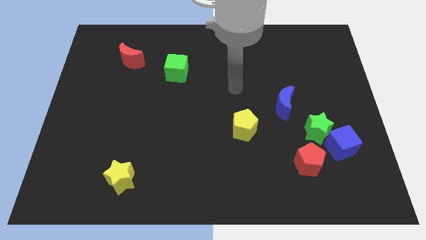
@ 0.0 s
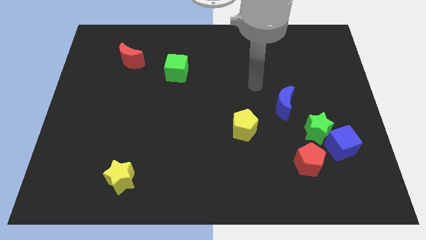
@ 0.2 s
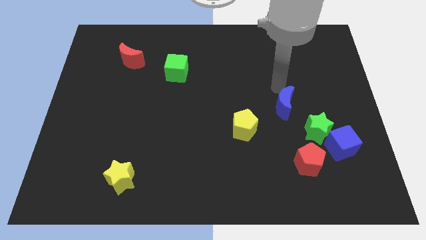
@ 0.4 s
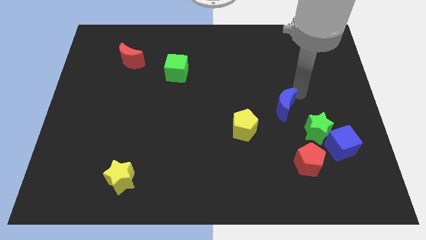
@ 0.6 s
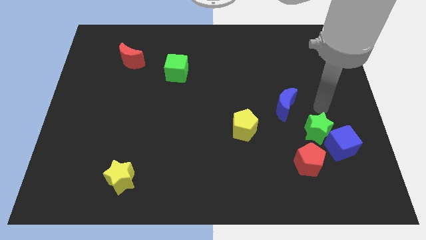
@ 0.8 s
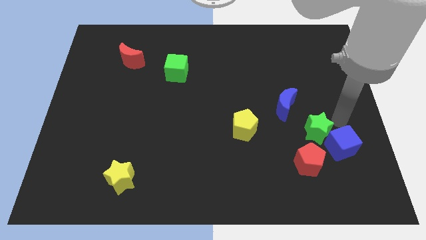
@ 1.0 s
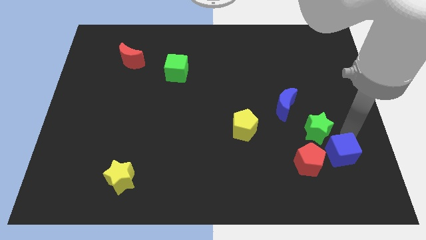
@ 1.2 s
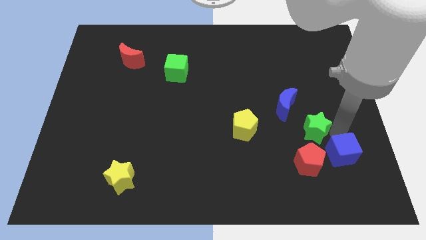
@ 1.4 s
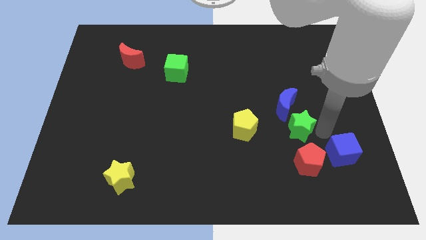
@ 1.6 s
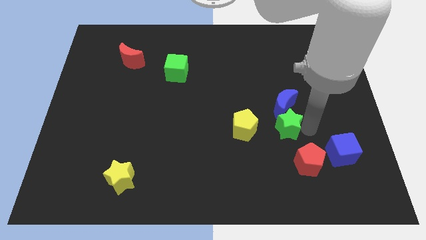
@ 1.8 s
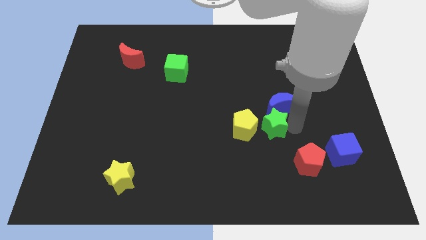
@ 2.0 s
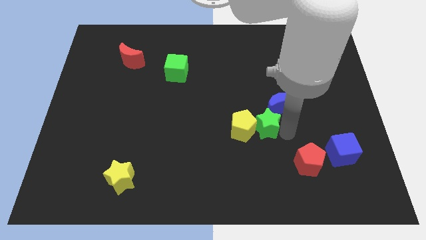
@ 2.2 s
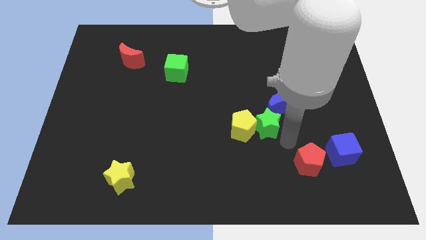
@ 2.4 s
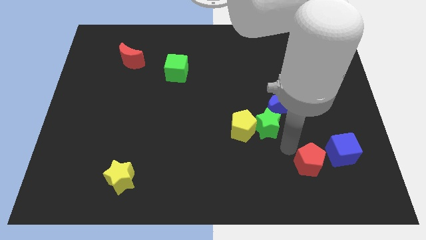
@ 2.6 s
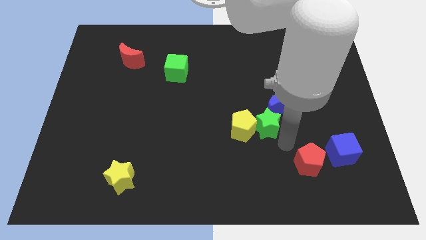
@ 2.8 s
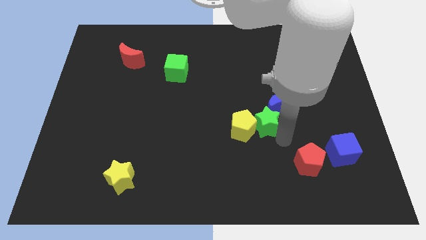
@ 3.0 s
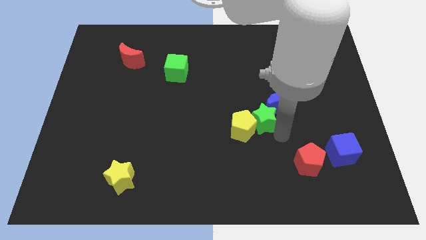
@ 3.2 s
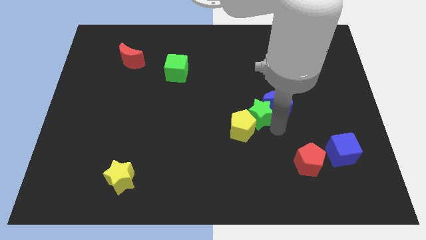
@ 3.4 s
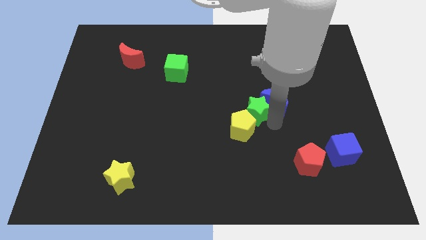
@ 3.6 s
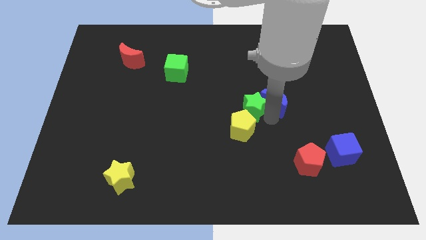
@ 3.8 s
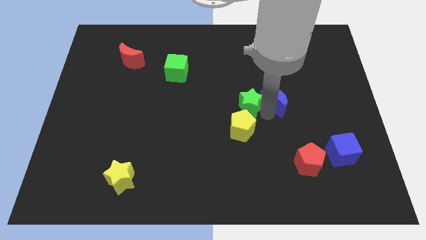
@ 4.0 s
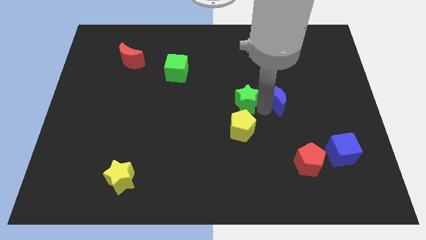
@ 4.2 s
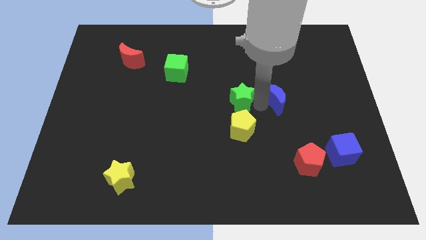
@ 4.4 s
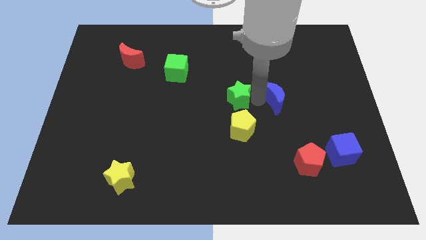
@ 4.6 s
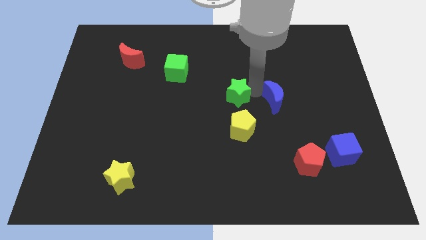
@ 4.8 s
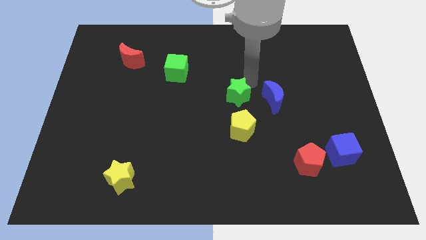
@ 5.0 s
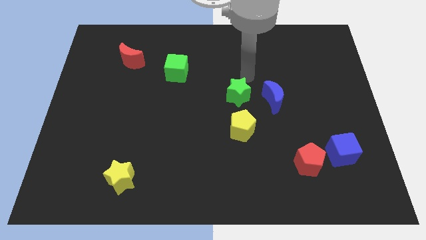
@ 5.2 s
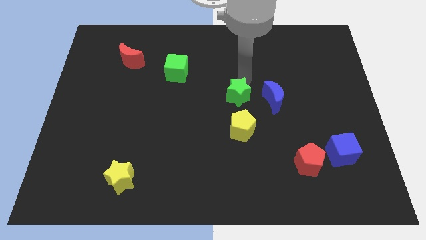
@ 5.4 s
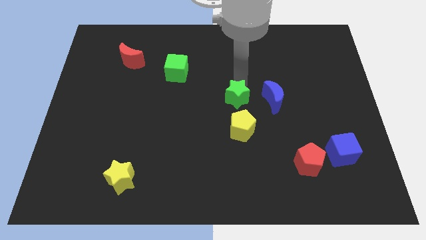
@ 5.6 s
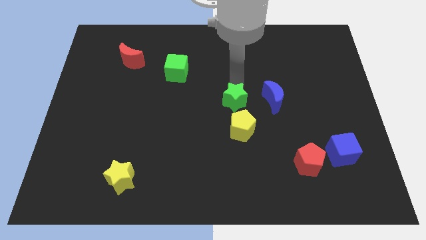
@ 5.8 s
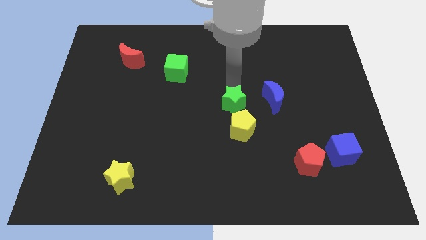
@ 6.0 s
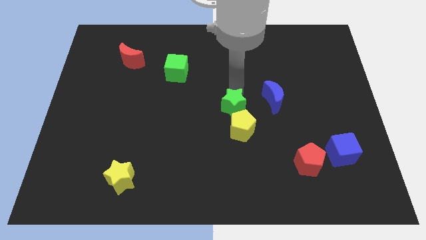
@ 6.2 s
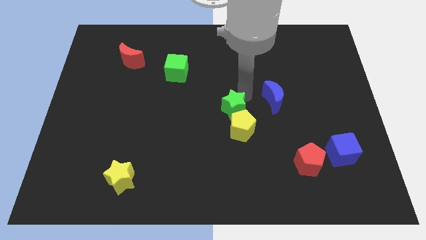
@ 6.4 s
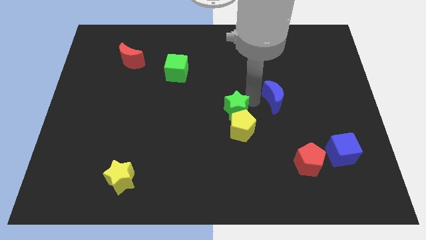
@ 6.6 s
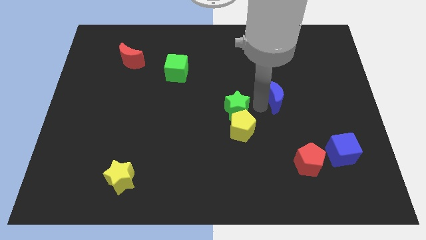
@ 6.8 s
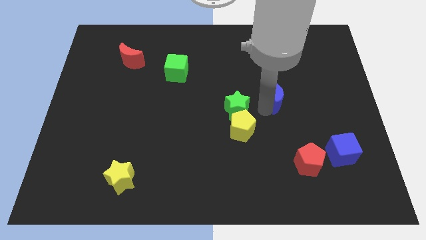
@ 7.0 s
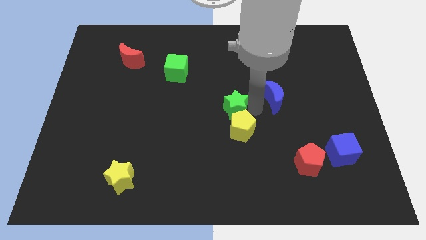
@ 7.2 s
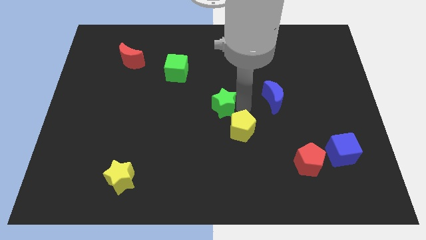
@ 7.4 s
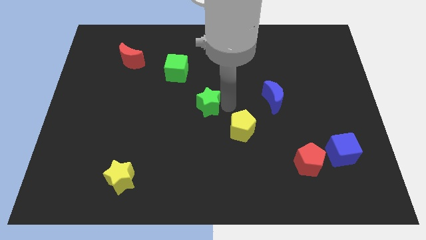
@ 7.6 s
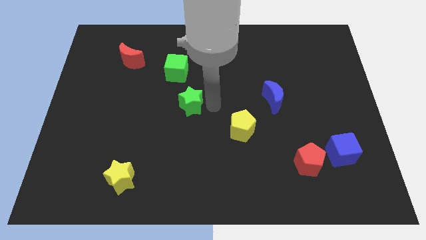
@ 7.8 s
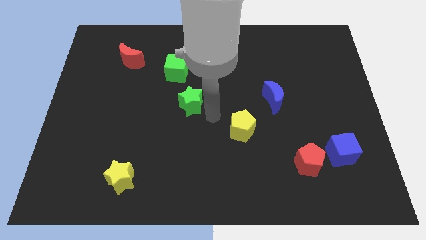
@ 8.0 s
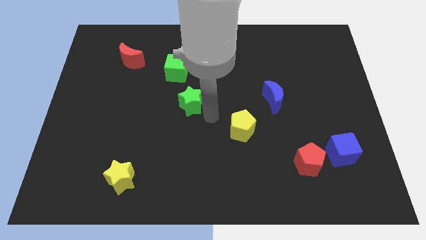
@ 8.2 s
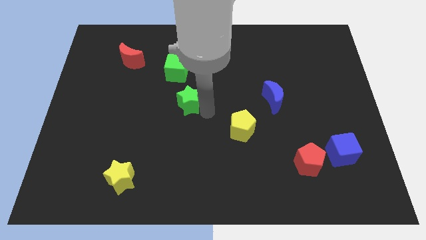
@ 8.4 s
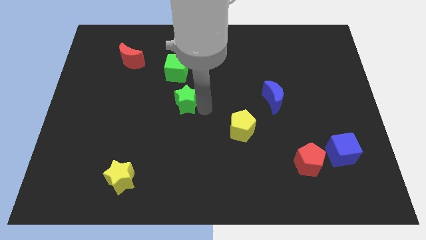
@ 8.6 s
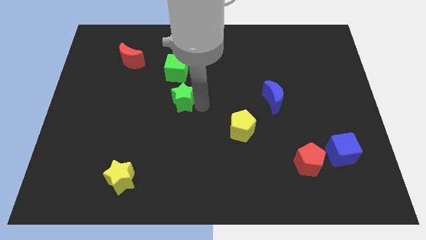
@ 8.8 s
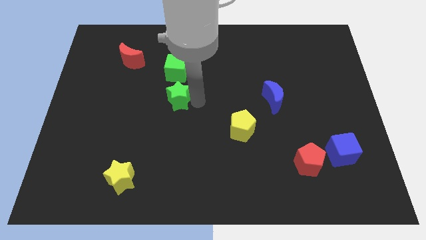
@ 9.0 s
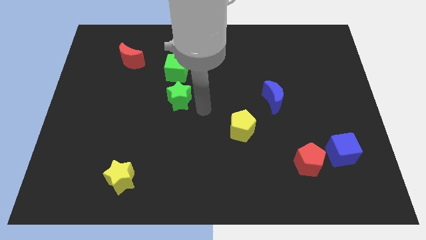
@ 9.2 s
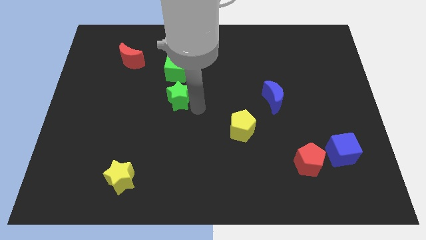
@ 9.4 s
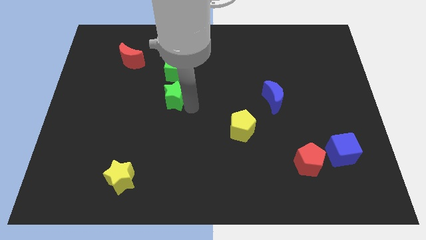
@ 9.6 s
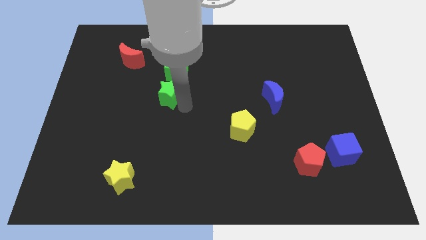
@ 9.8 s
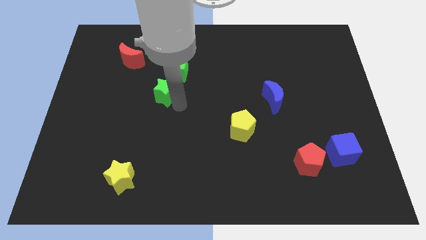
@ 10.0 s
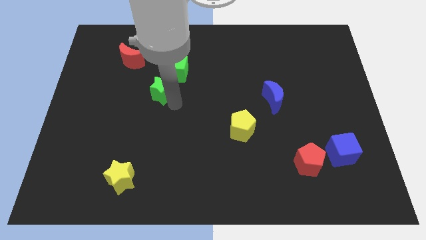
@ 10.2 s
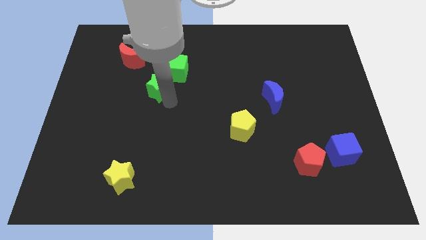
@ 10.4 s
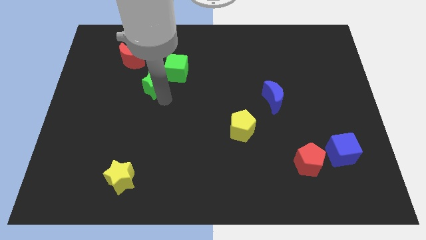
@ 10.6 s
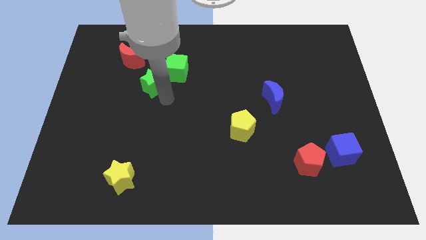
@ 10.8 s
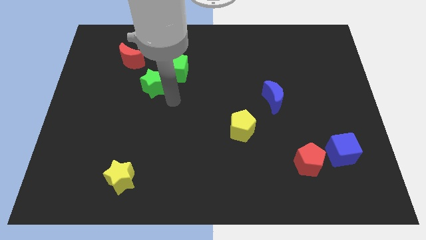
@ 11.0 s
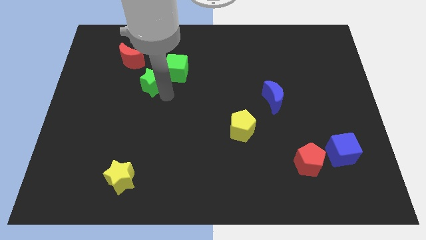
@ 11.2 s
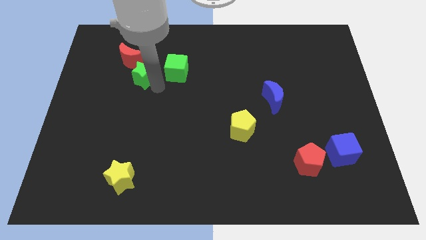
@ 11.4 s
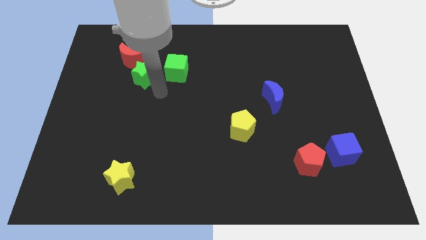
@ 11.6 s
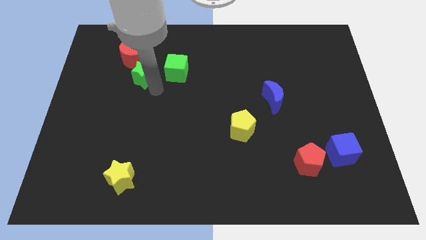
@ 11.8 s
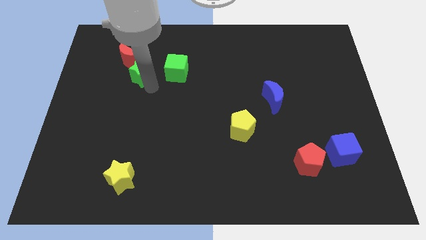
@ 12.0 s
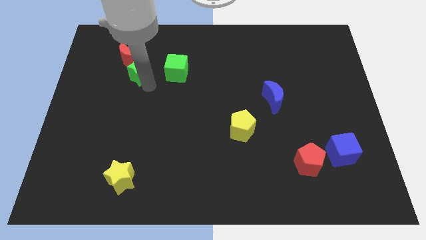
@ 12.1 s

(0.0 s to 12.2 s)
move the green star towards the red moon

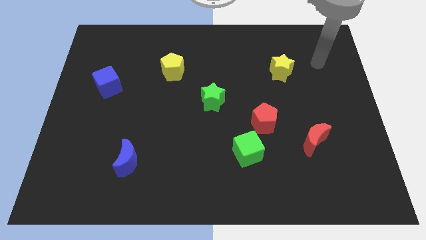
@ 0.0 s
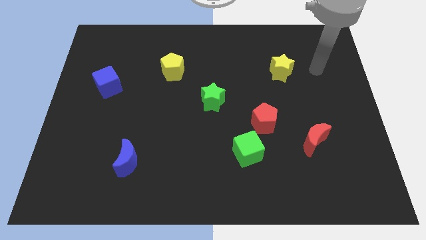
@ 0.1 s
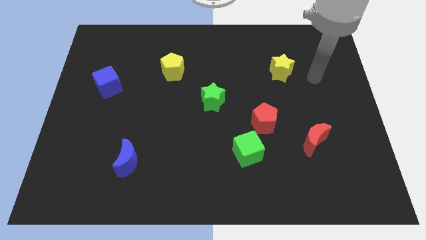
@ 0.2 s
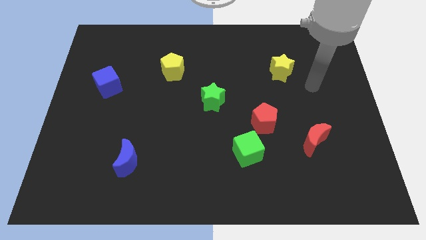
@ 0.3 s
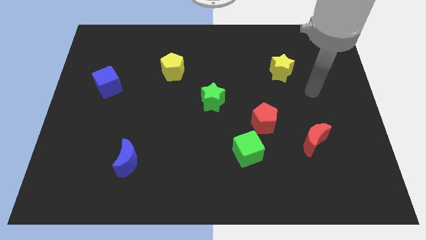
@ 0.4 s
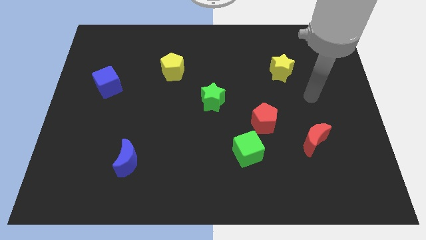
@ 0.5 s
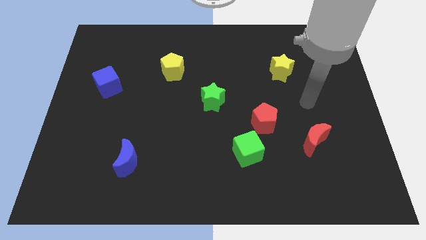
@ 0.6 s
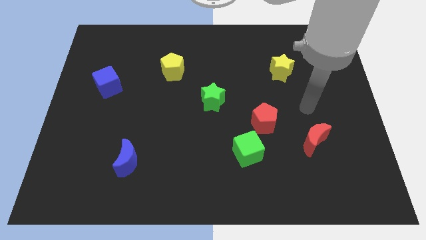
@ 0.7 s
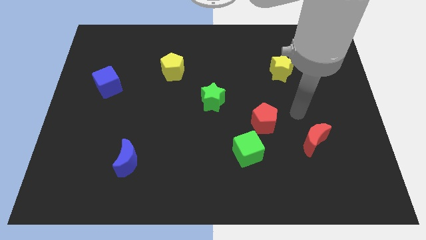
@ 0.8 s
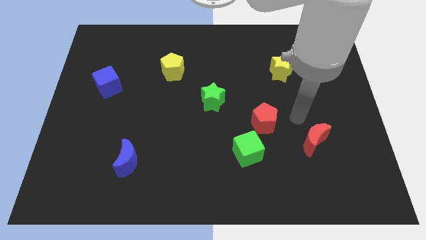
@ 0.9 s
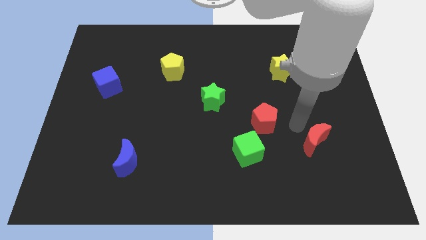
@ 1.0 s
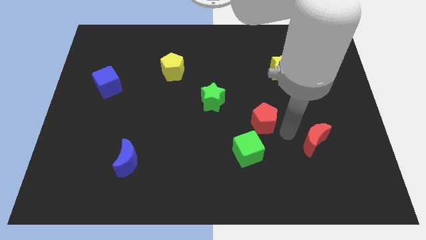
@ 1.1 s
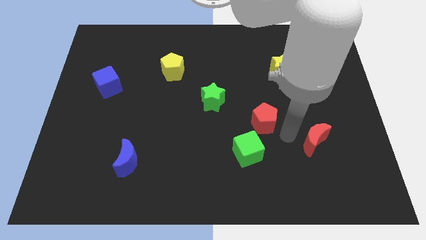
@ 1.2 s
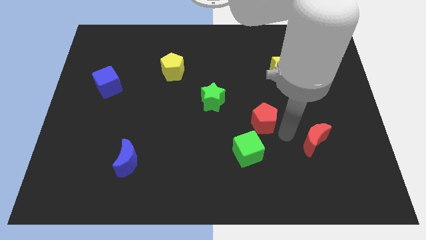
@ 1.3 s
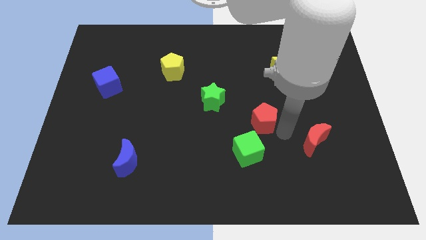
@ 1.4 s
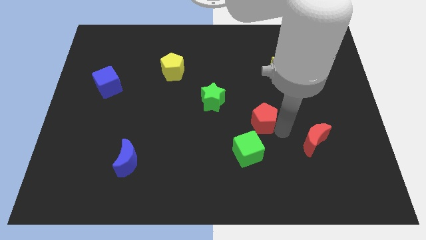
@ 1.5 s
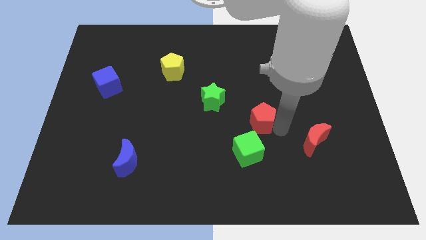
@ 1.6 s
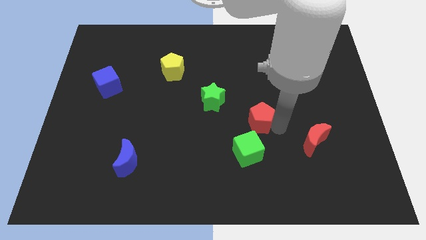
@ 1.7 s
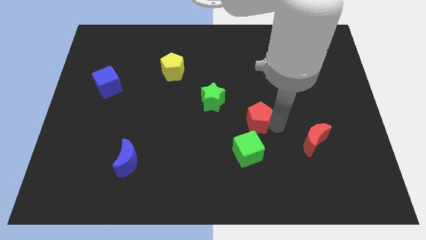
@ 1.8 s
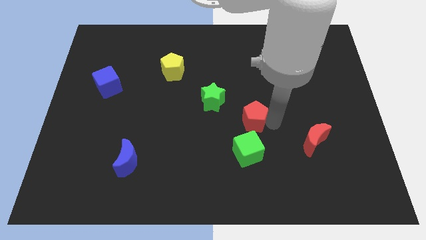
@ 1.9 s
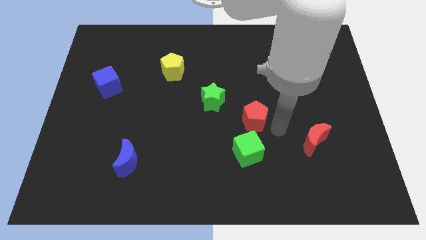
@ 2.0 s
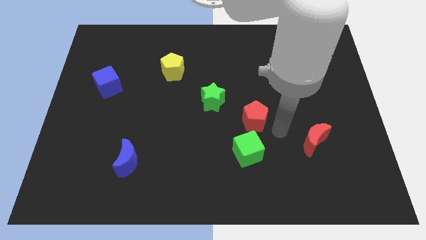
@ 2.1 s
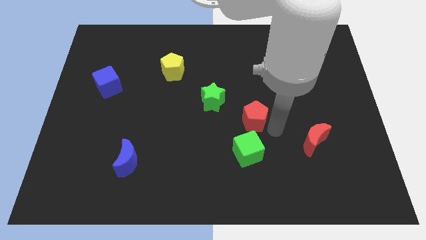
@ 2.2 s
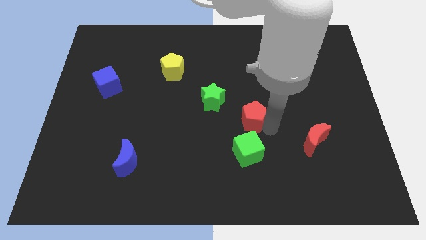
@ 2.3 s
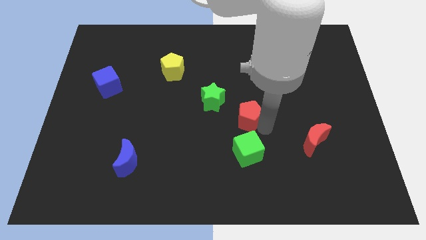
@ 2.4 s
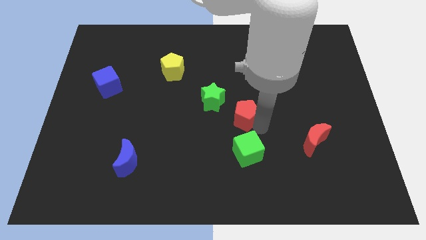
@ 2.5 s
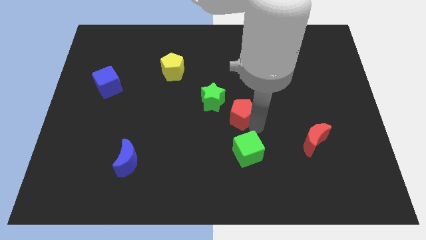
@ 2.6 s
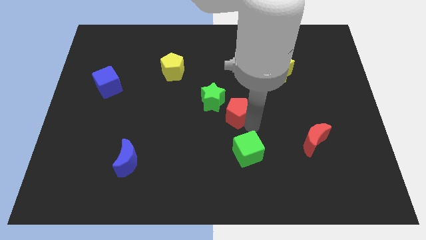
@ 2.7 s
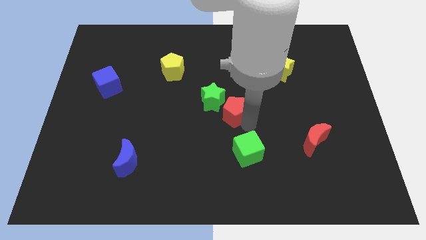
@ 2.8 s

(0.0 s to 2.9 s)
slide the red pentagon to the green star
